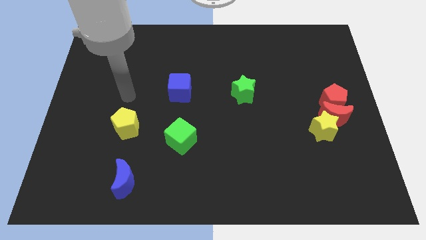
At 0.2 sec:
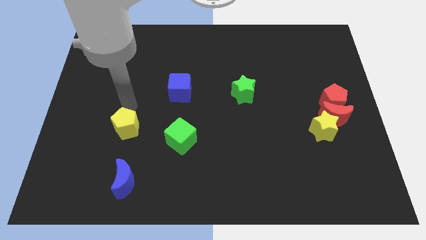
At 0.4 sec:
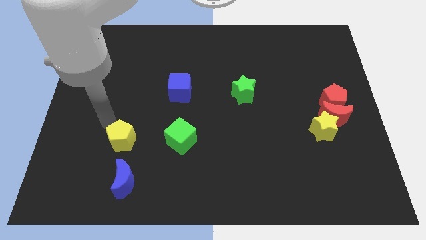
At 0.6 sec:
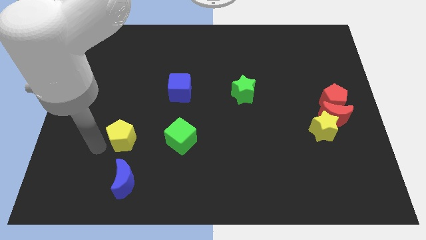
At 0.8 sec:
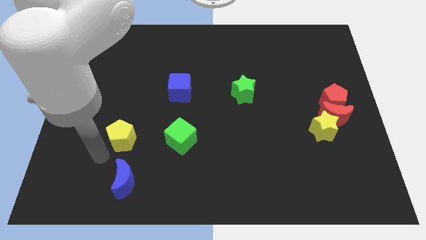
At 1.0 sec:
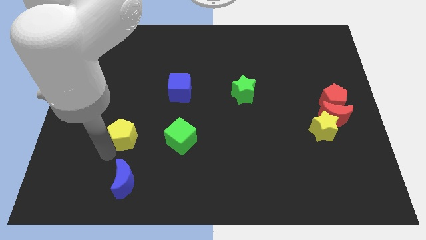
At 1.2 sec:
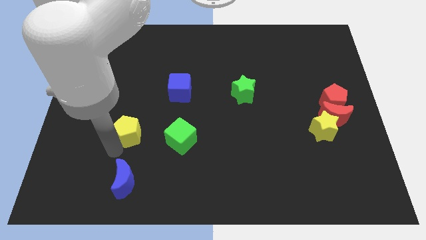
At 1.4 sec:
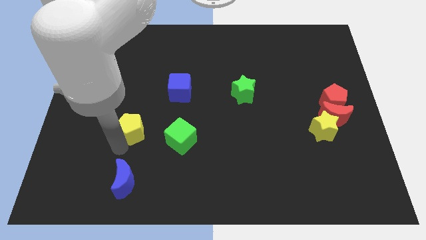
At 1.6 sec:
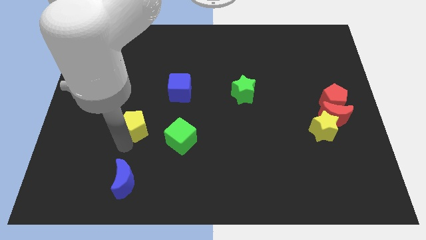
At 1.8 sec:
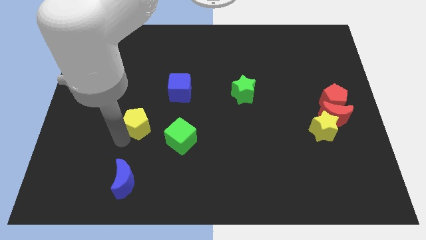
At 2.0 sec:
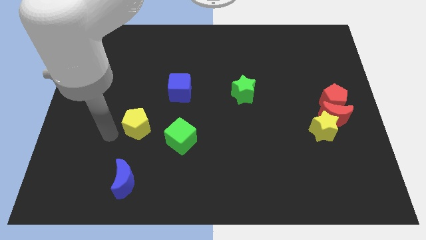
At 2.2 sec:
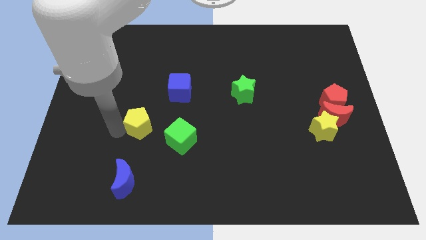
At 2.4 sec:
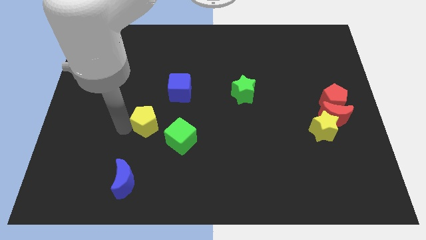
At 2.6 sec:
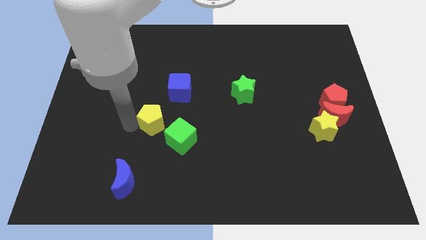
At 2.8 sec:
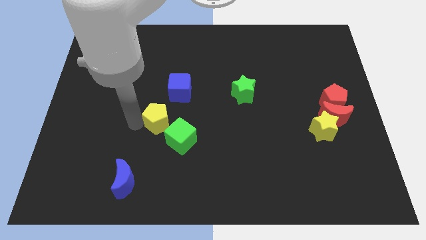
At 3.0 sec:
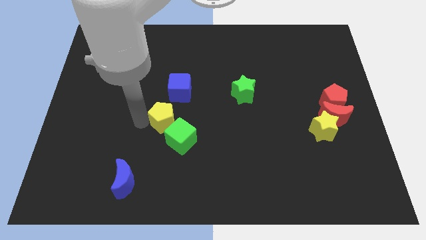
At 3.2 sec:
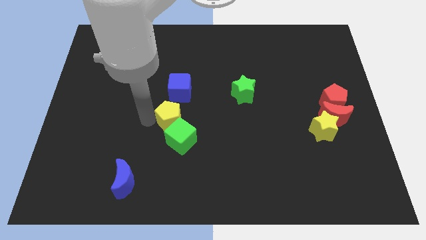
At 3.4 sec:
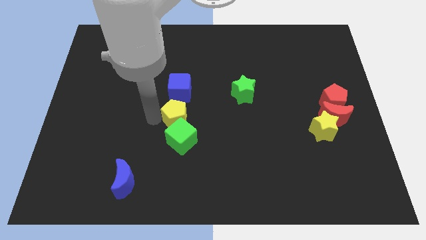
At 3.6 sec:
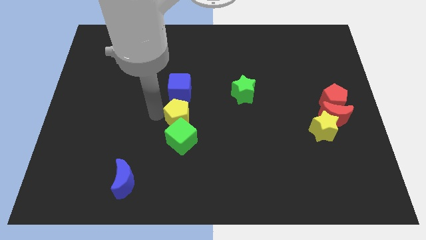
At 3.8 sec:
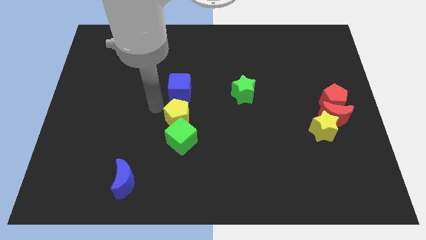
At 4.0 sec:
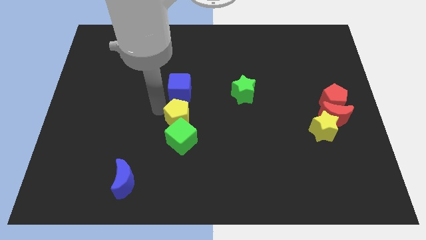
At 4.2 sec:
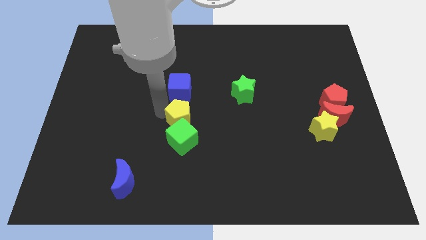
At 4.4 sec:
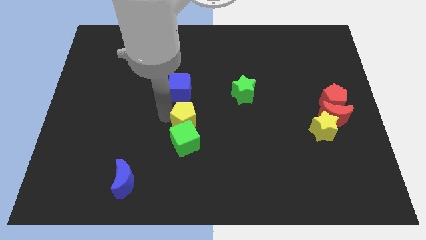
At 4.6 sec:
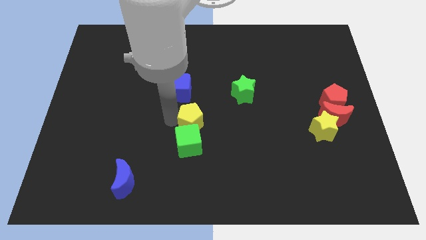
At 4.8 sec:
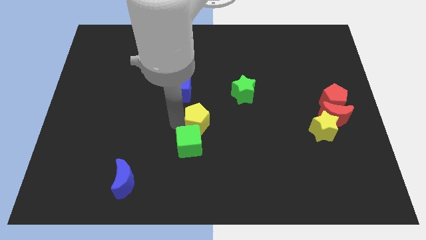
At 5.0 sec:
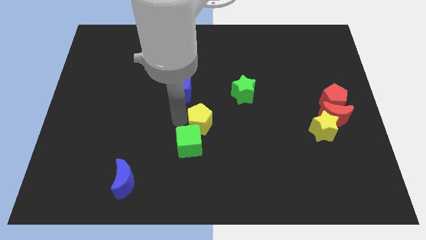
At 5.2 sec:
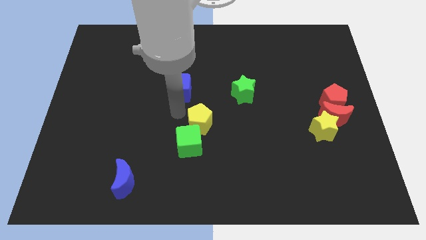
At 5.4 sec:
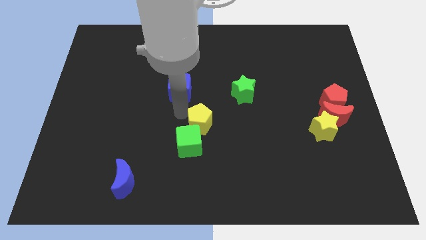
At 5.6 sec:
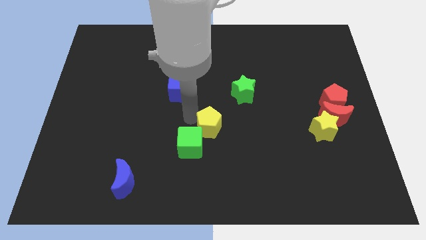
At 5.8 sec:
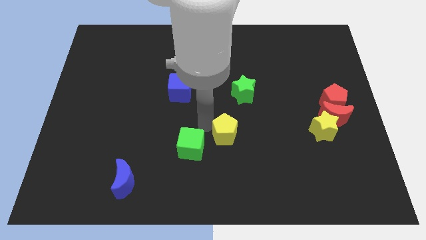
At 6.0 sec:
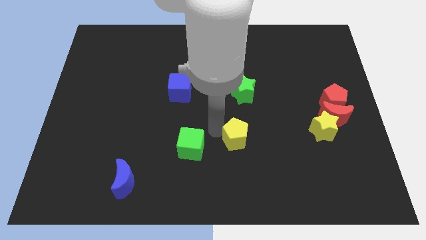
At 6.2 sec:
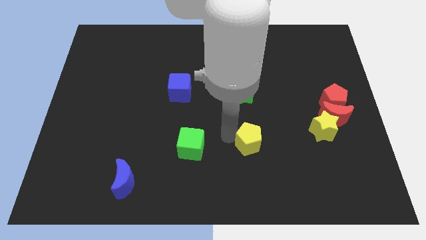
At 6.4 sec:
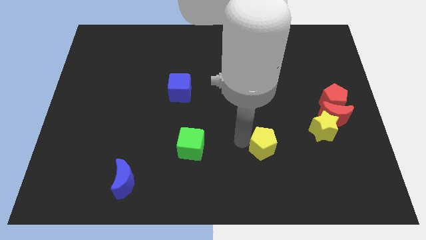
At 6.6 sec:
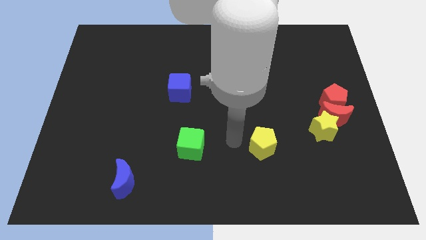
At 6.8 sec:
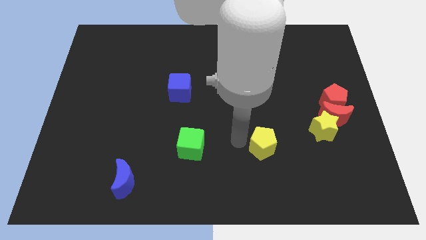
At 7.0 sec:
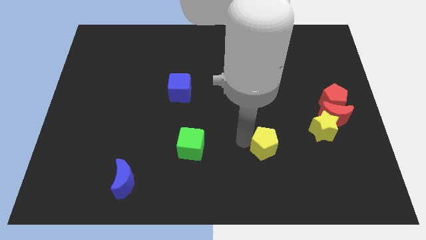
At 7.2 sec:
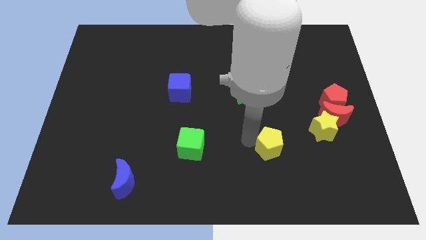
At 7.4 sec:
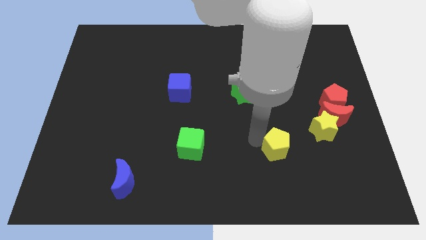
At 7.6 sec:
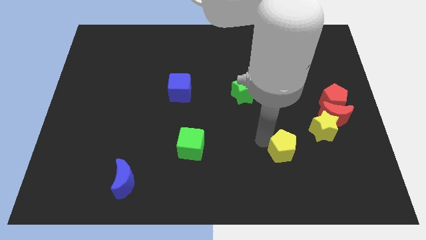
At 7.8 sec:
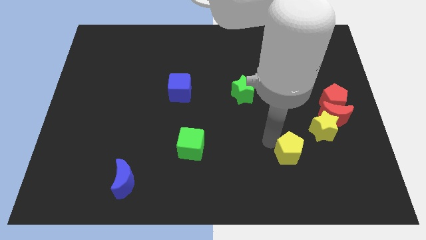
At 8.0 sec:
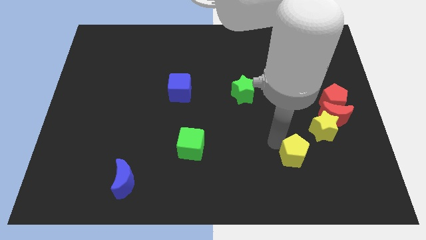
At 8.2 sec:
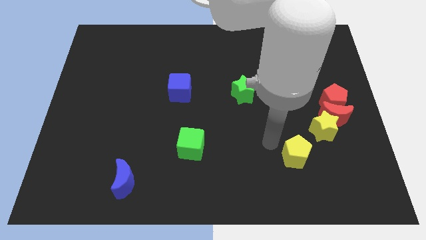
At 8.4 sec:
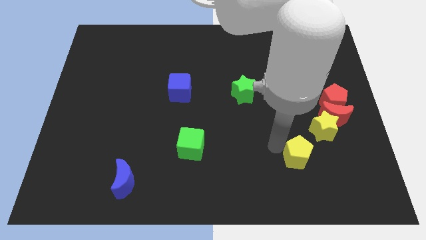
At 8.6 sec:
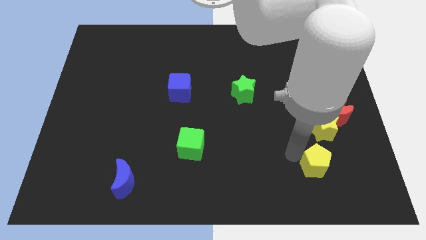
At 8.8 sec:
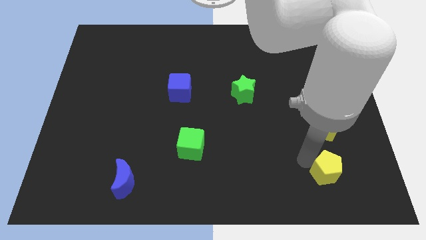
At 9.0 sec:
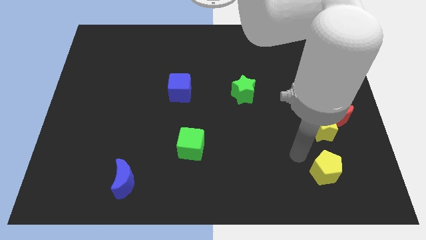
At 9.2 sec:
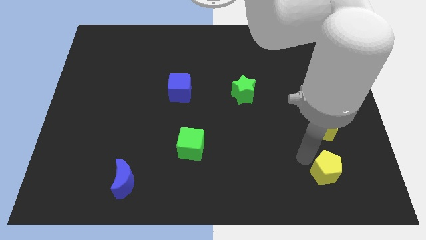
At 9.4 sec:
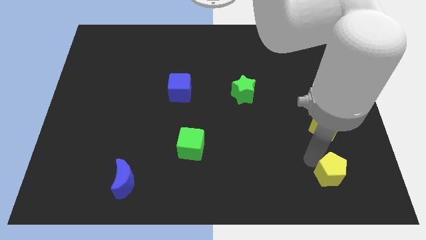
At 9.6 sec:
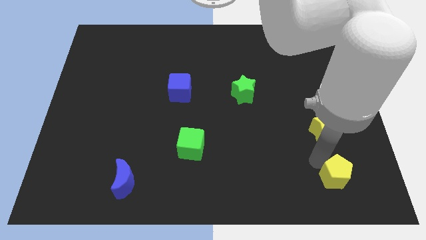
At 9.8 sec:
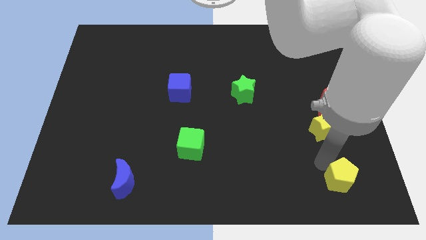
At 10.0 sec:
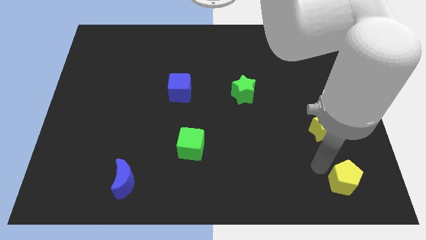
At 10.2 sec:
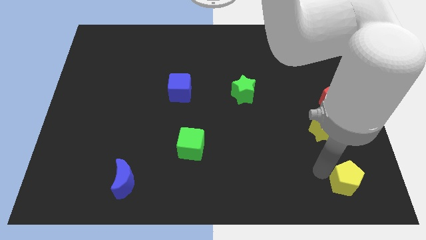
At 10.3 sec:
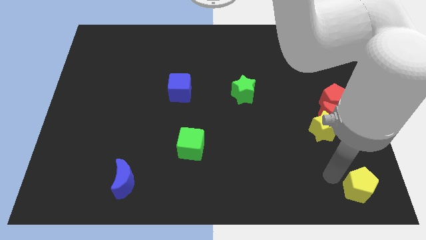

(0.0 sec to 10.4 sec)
push the yellow pentagon to the lower right corner
